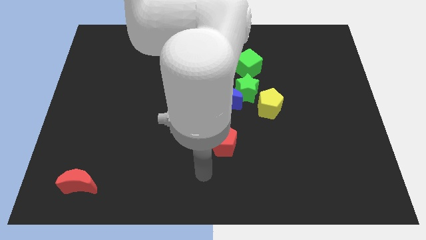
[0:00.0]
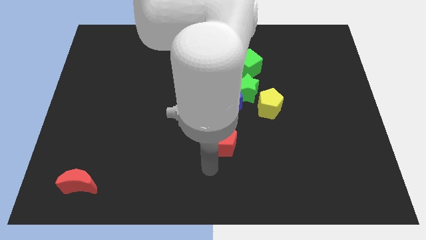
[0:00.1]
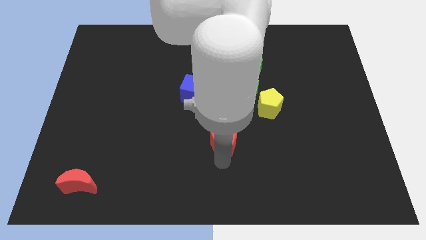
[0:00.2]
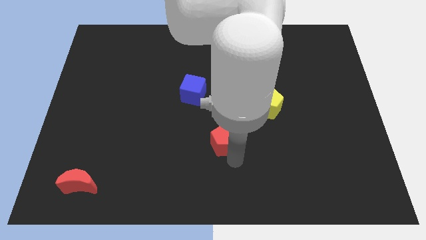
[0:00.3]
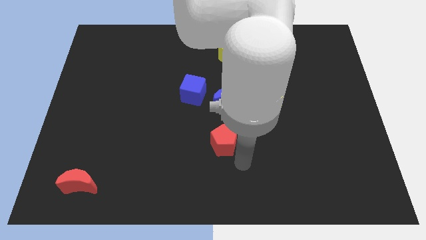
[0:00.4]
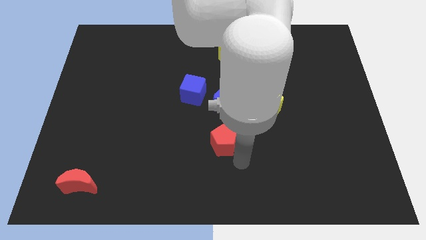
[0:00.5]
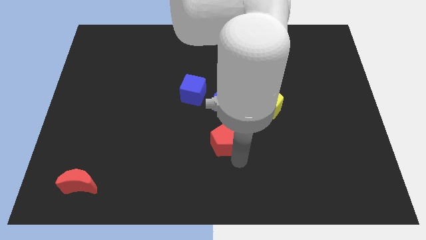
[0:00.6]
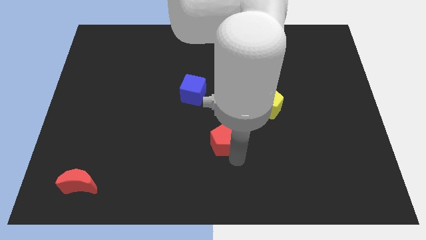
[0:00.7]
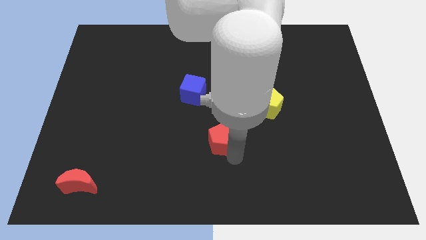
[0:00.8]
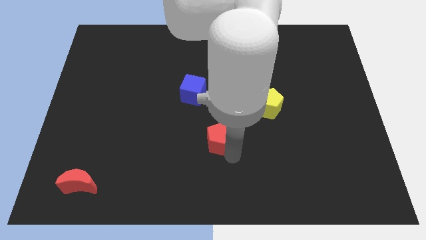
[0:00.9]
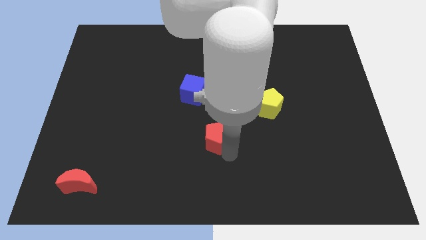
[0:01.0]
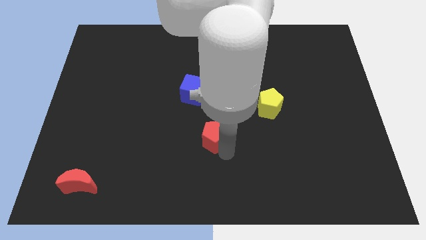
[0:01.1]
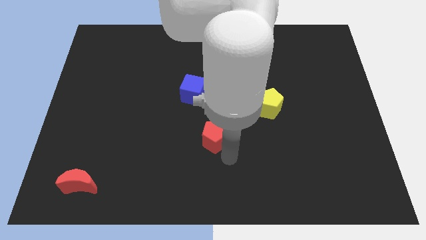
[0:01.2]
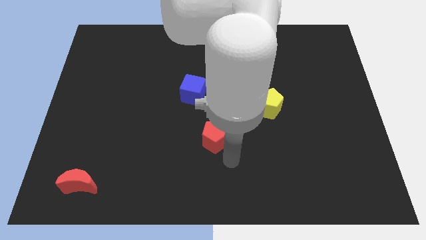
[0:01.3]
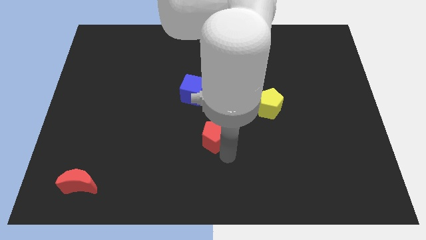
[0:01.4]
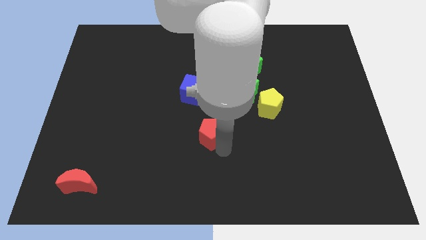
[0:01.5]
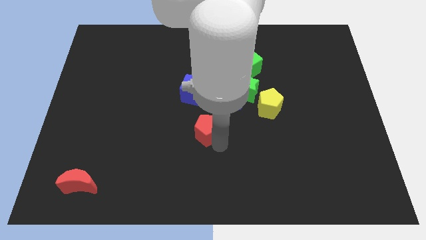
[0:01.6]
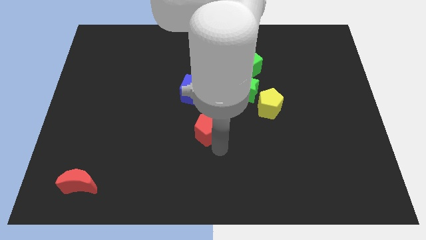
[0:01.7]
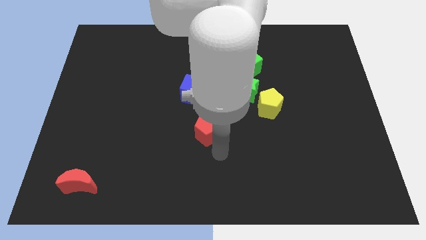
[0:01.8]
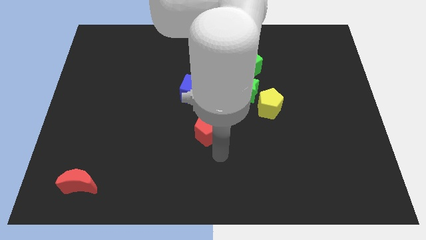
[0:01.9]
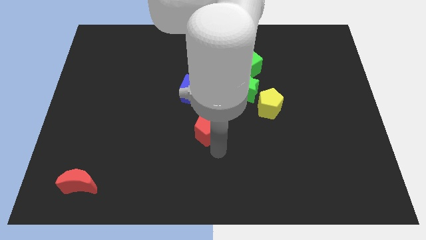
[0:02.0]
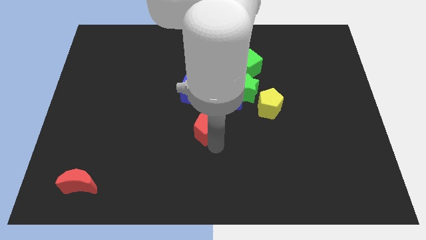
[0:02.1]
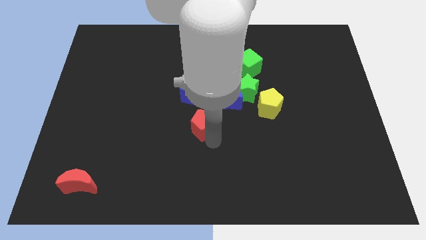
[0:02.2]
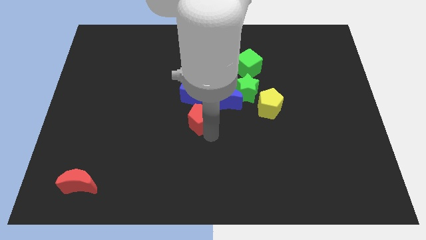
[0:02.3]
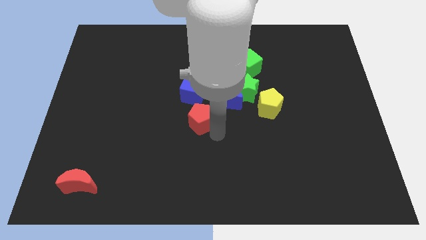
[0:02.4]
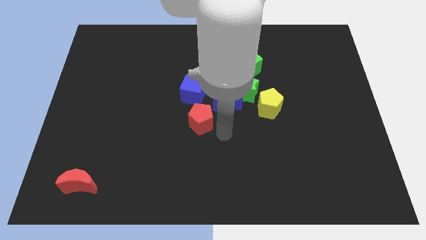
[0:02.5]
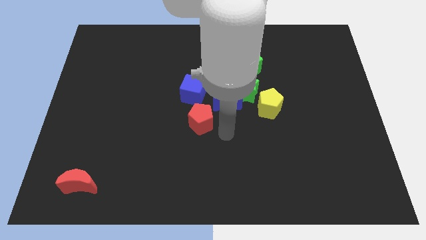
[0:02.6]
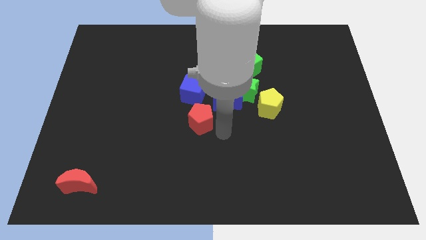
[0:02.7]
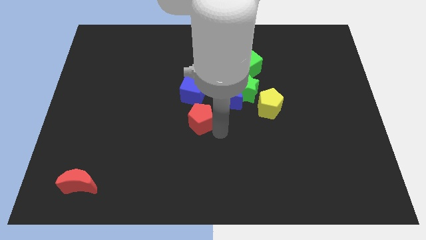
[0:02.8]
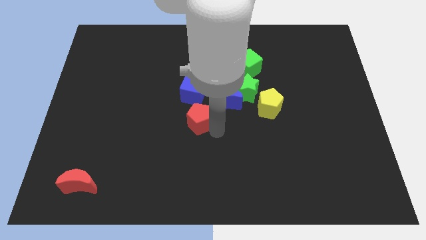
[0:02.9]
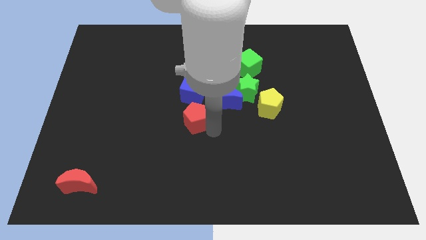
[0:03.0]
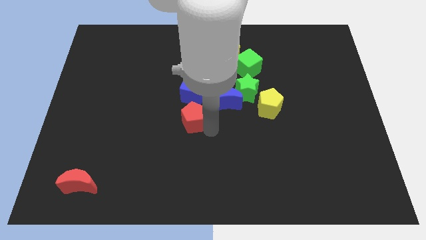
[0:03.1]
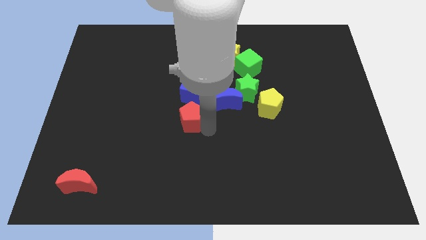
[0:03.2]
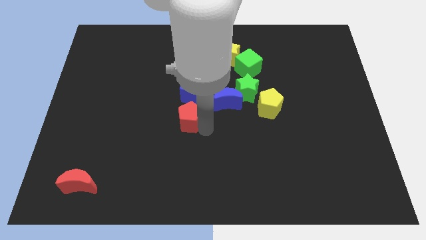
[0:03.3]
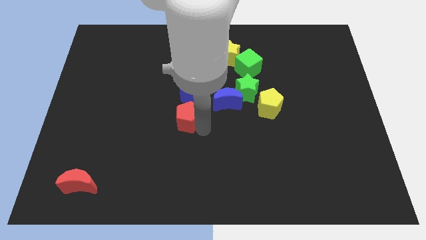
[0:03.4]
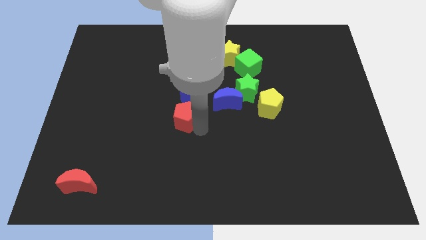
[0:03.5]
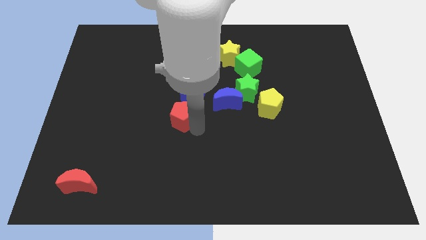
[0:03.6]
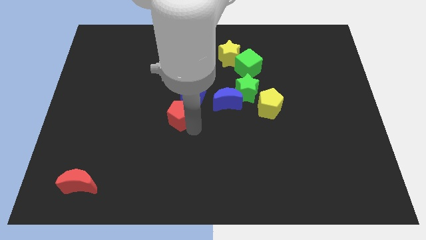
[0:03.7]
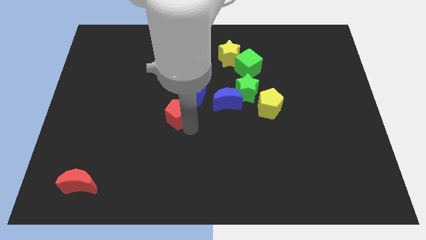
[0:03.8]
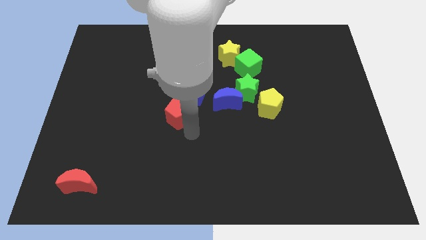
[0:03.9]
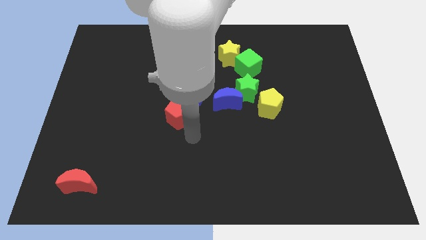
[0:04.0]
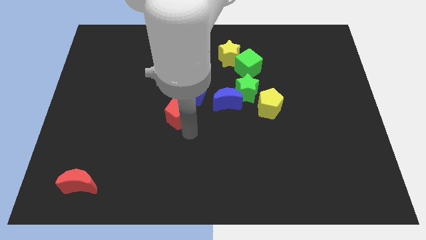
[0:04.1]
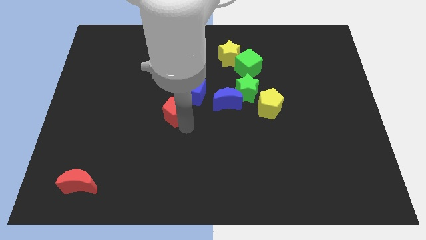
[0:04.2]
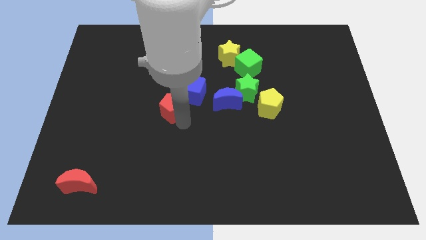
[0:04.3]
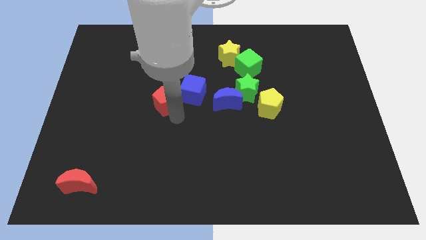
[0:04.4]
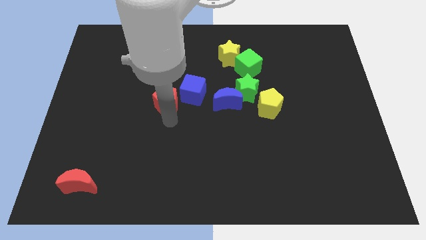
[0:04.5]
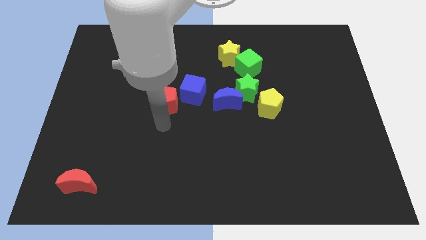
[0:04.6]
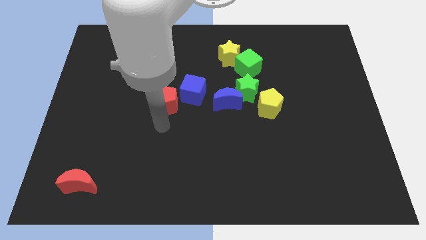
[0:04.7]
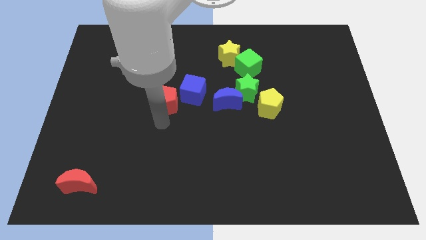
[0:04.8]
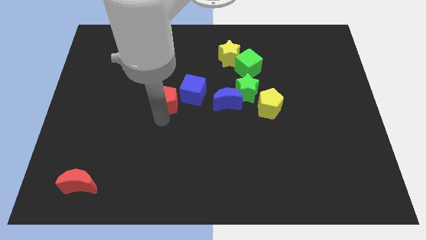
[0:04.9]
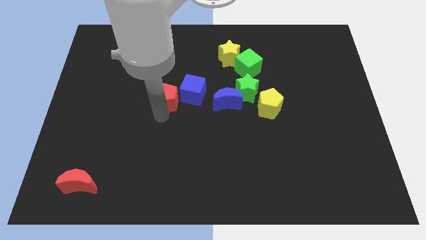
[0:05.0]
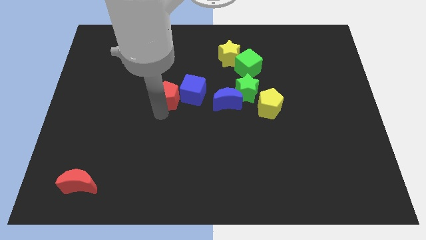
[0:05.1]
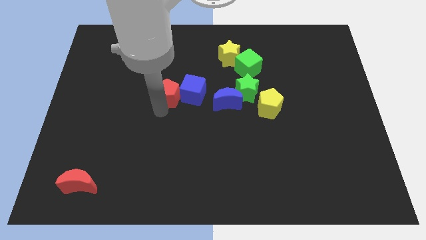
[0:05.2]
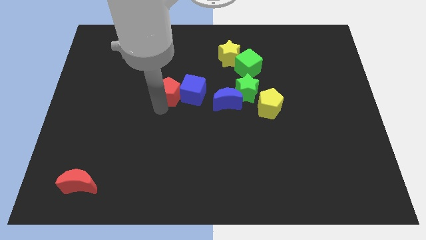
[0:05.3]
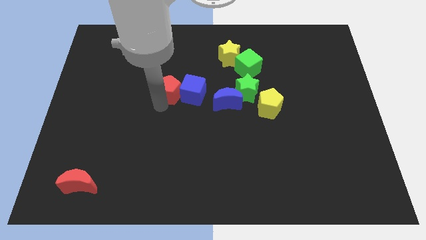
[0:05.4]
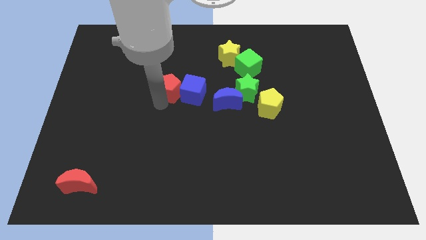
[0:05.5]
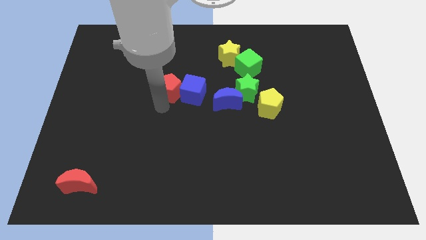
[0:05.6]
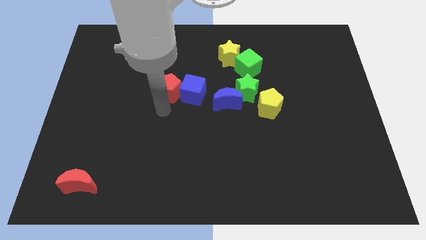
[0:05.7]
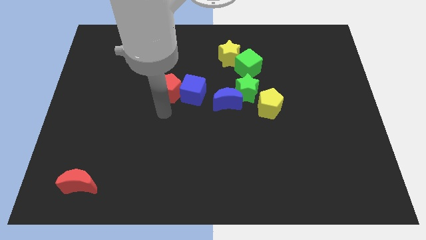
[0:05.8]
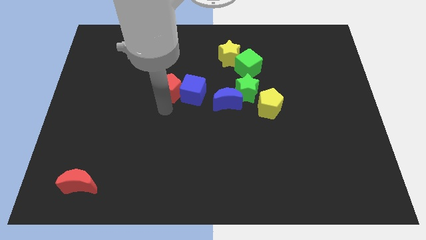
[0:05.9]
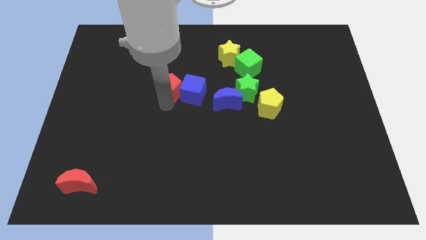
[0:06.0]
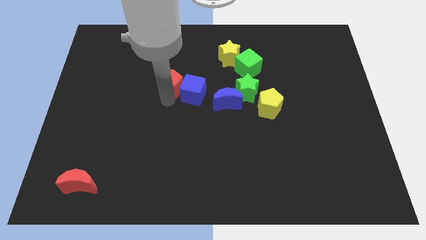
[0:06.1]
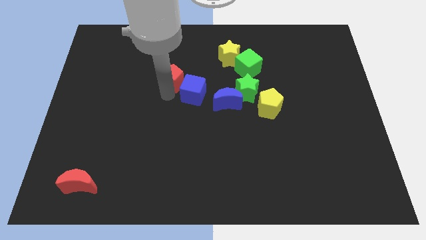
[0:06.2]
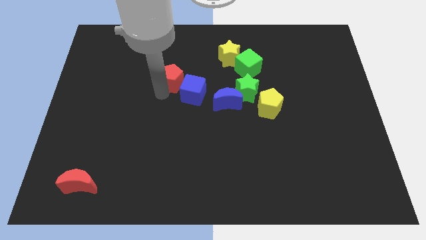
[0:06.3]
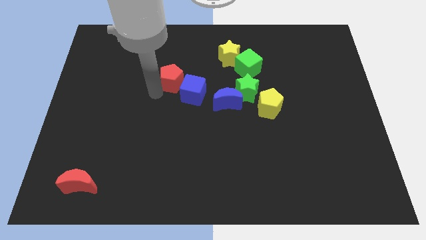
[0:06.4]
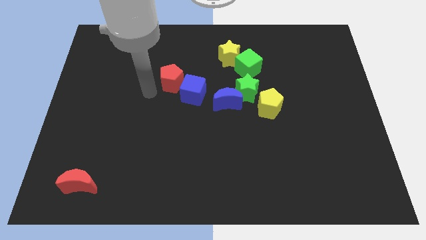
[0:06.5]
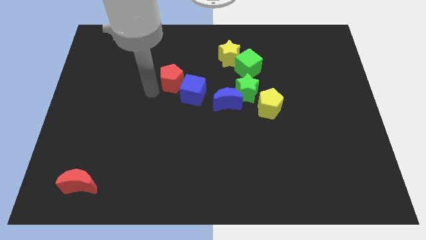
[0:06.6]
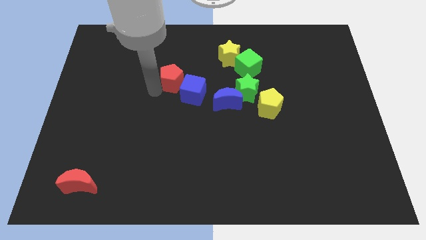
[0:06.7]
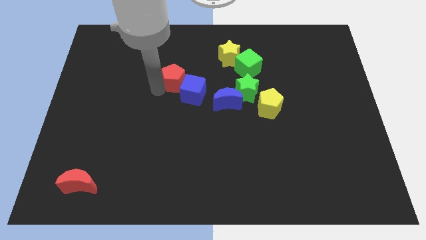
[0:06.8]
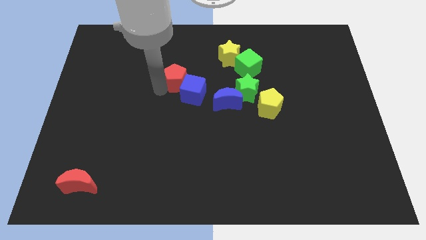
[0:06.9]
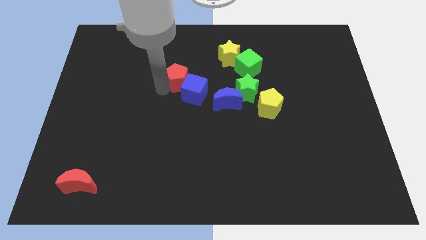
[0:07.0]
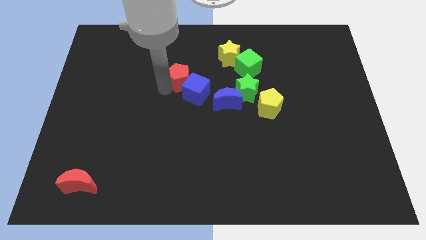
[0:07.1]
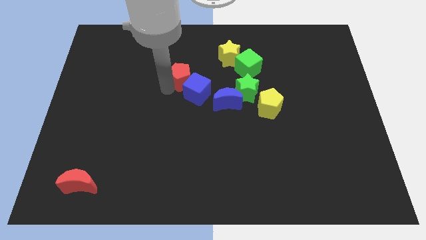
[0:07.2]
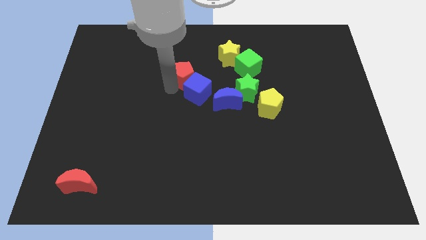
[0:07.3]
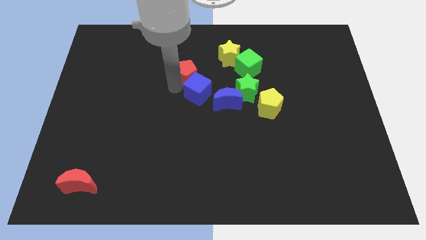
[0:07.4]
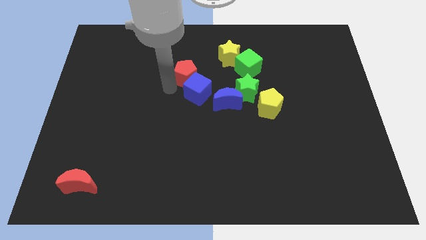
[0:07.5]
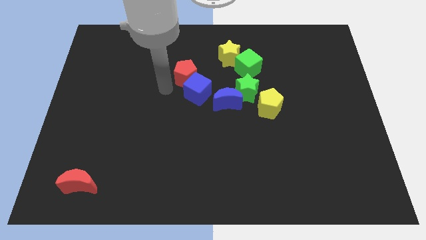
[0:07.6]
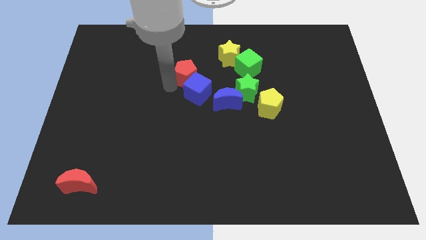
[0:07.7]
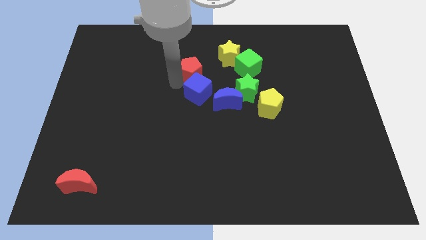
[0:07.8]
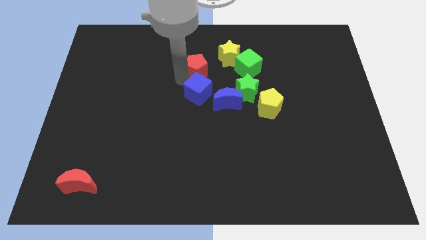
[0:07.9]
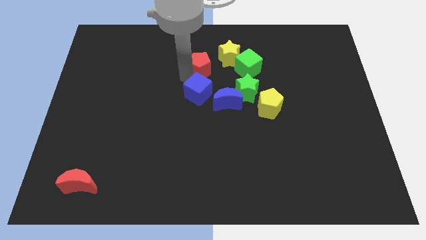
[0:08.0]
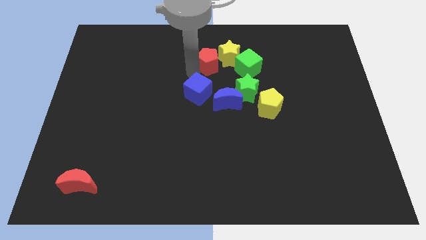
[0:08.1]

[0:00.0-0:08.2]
slide the red pentagon close to the yellow star
